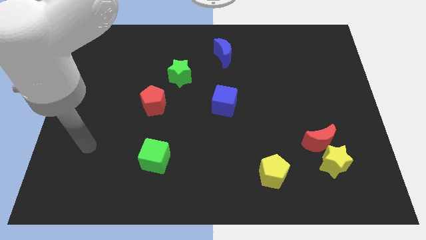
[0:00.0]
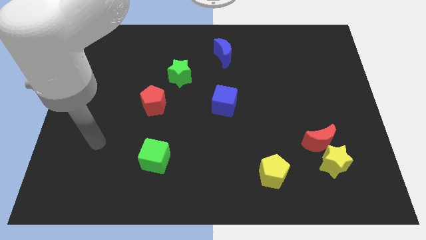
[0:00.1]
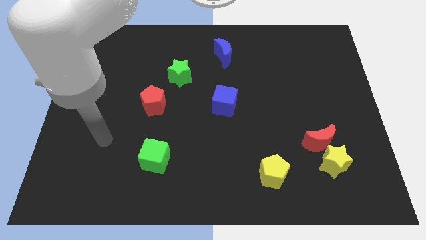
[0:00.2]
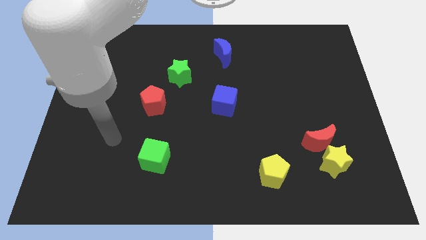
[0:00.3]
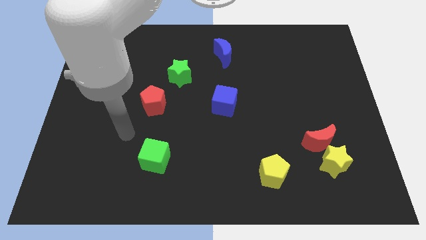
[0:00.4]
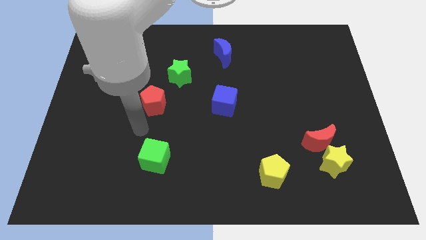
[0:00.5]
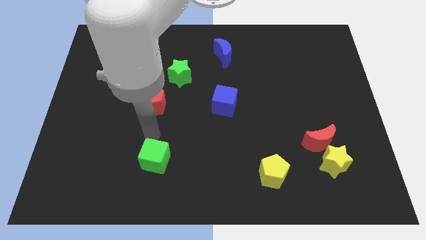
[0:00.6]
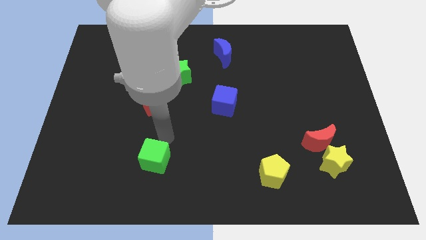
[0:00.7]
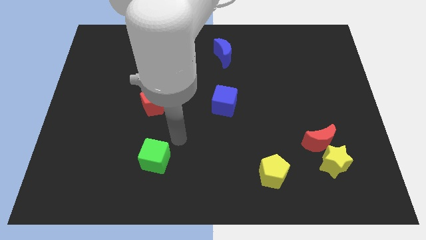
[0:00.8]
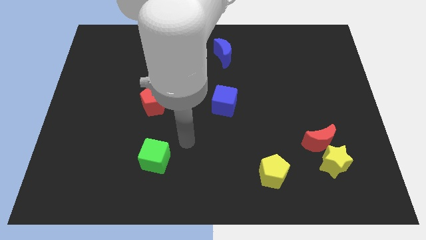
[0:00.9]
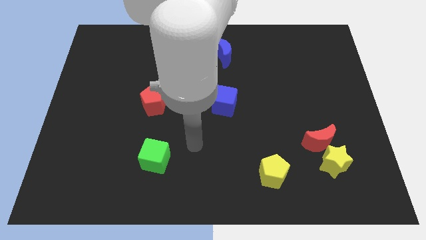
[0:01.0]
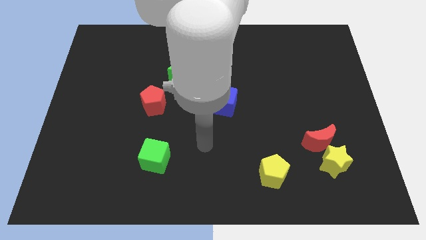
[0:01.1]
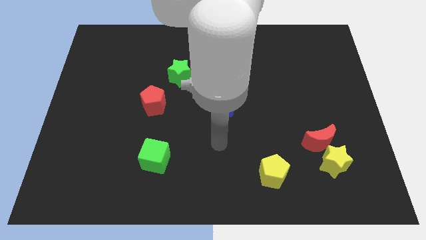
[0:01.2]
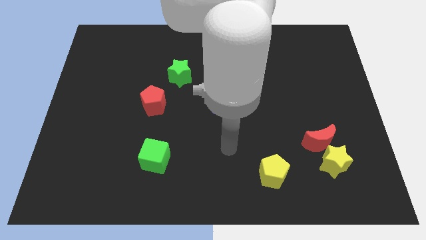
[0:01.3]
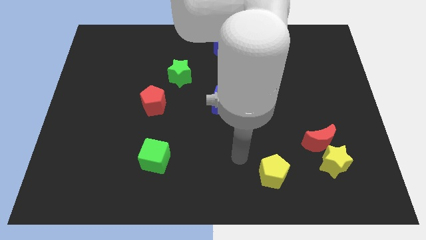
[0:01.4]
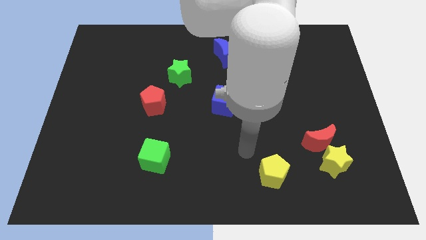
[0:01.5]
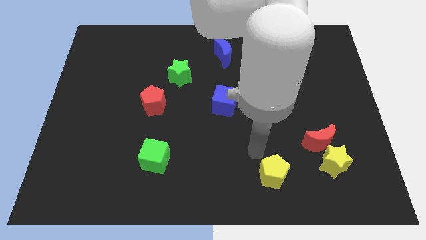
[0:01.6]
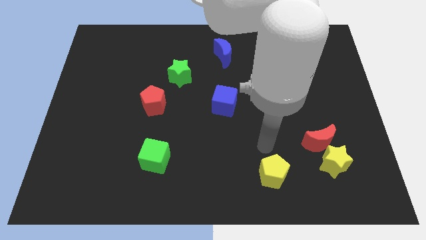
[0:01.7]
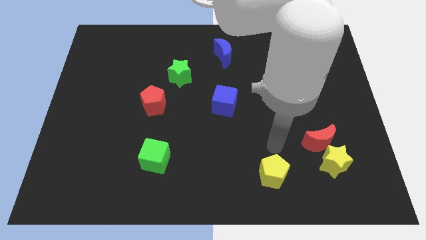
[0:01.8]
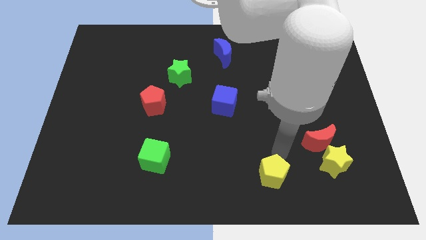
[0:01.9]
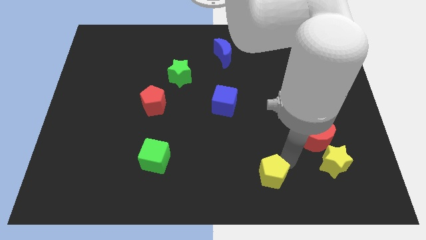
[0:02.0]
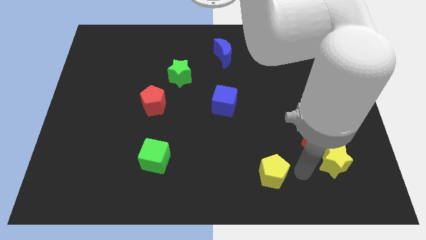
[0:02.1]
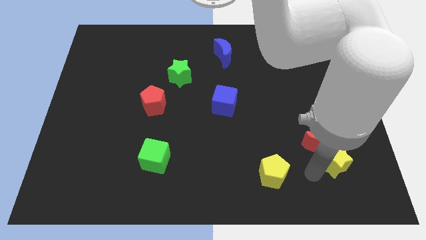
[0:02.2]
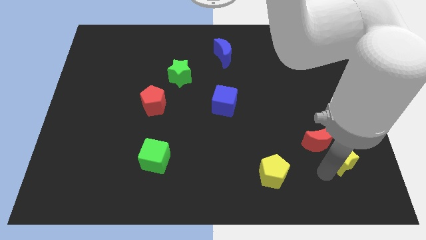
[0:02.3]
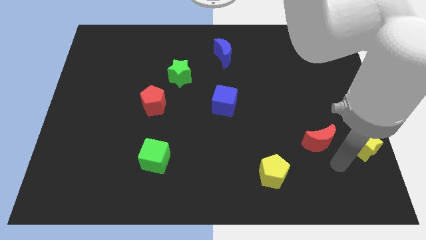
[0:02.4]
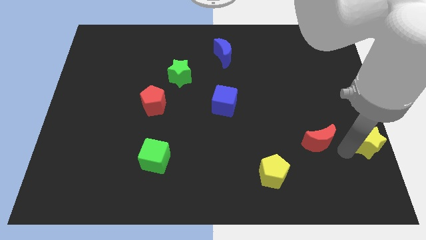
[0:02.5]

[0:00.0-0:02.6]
separate the red moon from the yellow star

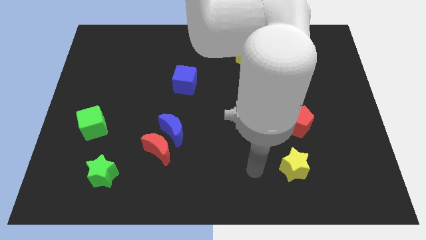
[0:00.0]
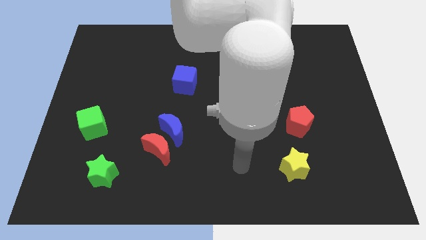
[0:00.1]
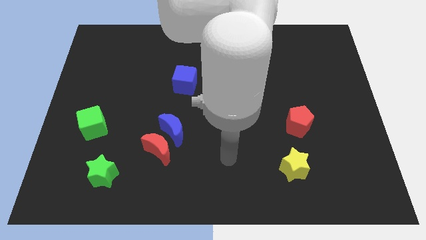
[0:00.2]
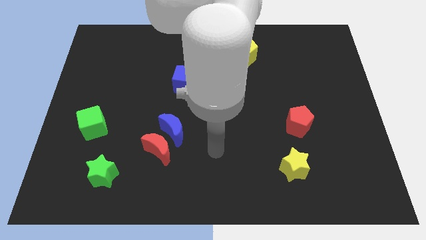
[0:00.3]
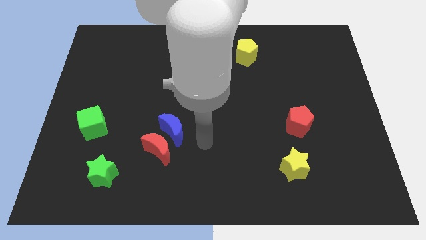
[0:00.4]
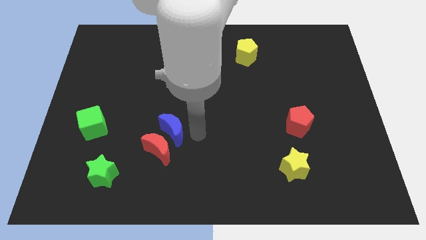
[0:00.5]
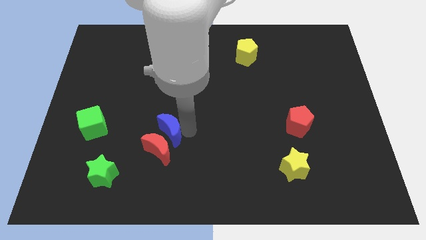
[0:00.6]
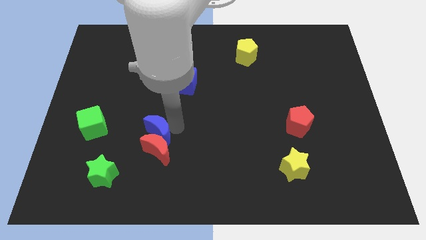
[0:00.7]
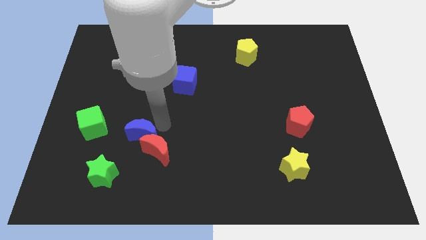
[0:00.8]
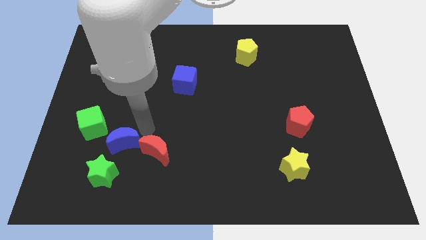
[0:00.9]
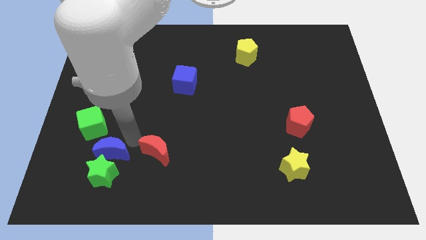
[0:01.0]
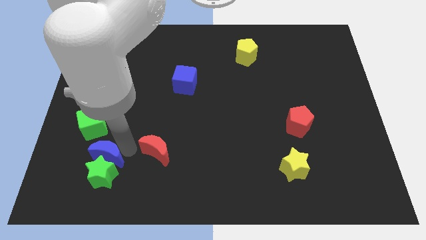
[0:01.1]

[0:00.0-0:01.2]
move the red moon away from the blue moon

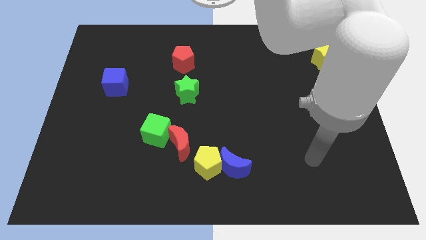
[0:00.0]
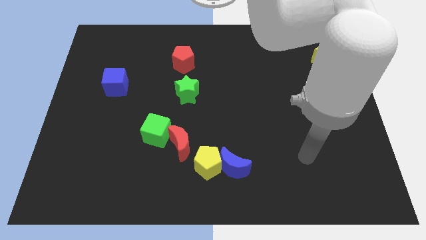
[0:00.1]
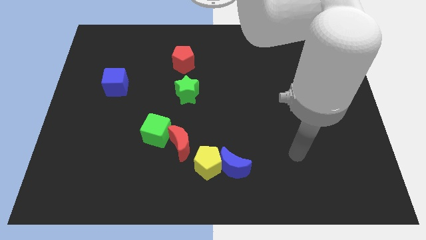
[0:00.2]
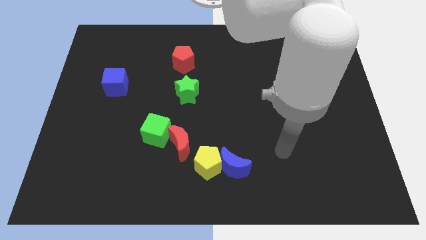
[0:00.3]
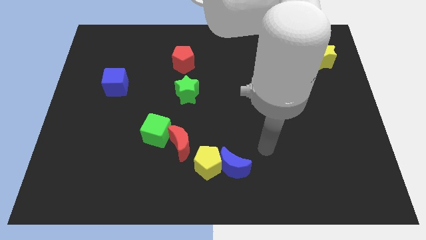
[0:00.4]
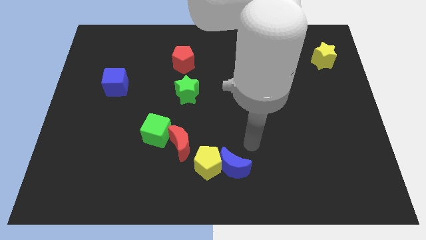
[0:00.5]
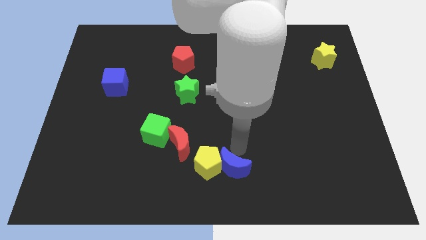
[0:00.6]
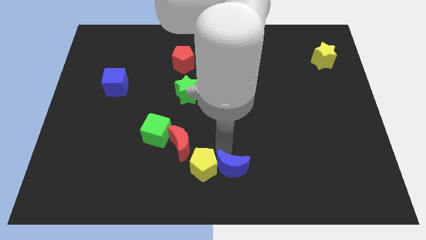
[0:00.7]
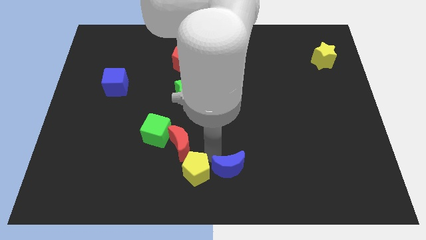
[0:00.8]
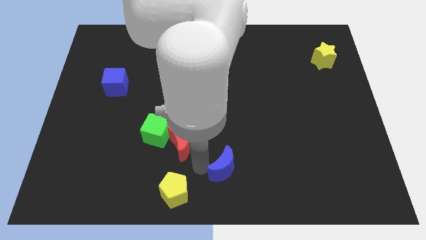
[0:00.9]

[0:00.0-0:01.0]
separate the blue moon from the yellow pentagon

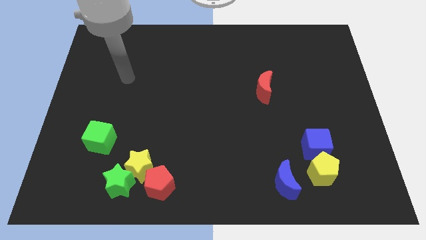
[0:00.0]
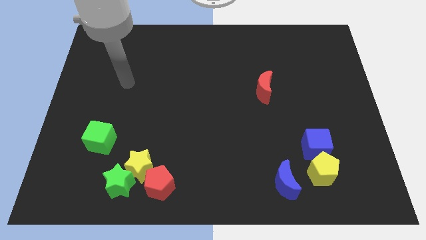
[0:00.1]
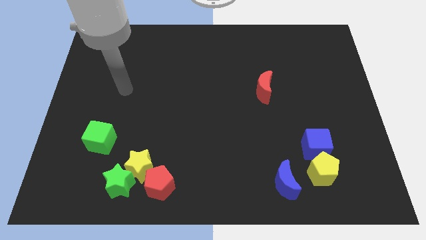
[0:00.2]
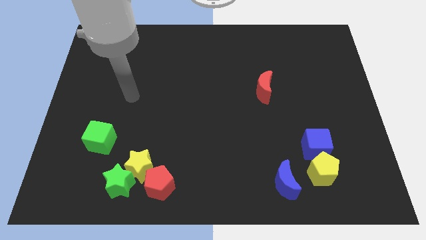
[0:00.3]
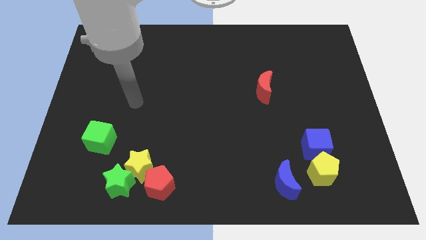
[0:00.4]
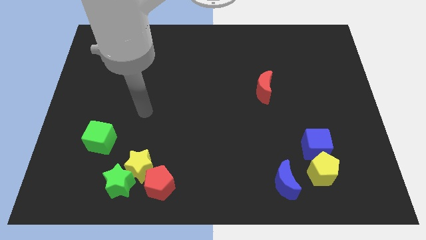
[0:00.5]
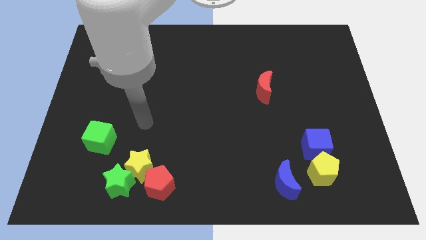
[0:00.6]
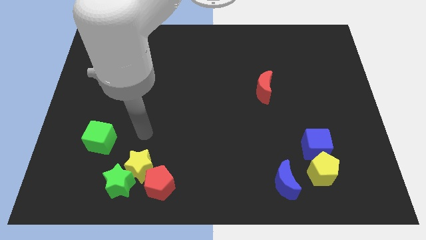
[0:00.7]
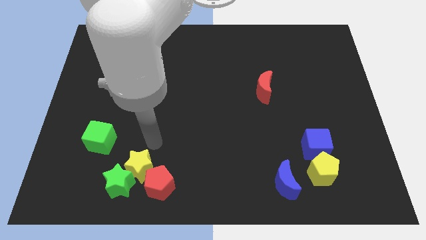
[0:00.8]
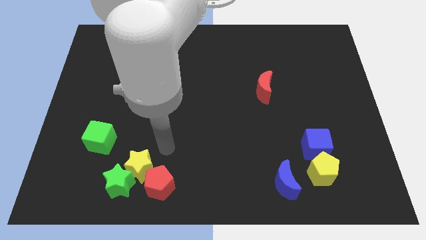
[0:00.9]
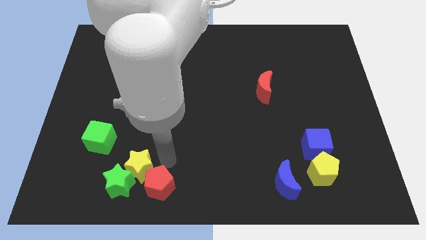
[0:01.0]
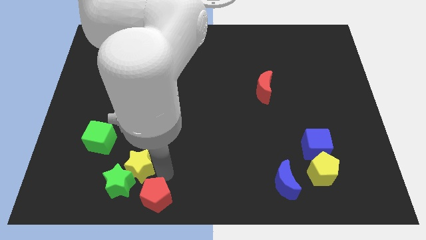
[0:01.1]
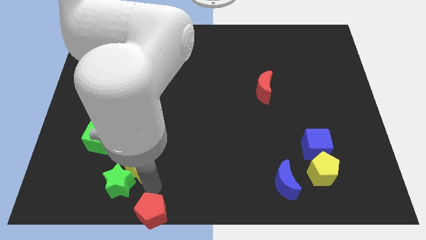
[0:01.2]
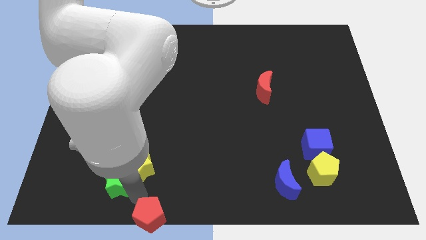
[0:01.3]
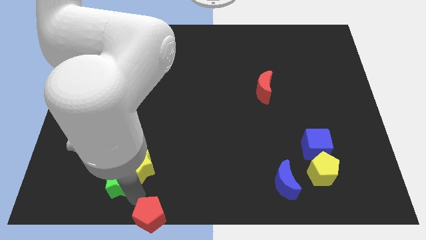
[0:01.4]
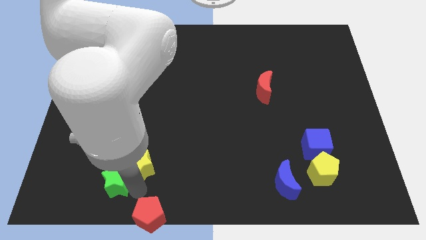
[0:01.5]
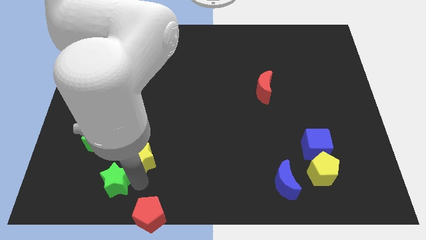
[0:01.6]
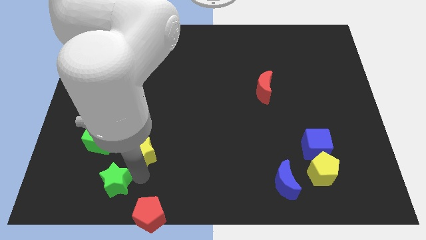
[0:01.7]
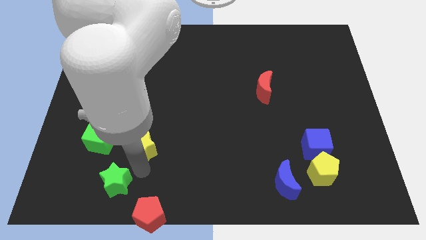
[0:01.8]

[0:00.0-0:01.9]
separate the yellow star from the green star and red pentagon

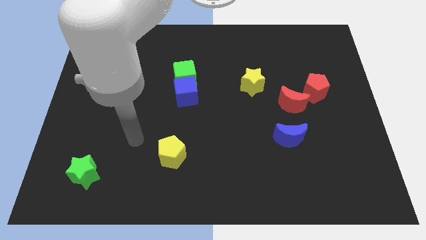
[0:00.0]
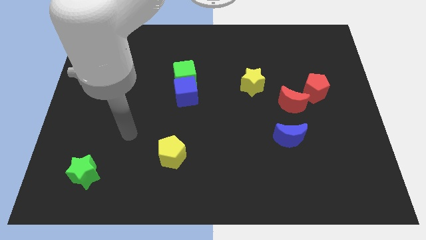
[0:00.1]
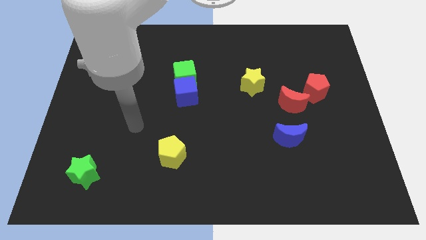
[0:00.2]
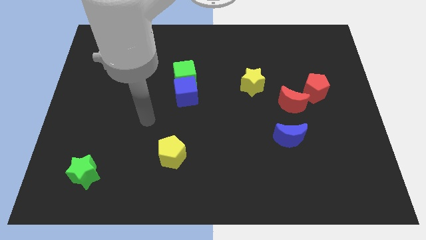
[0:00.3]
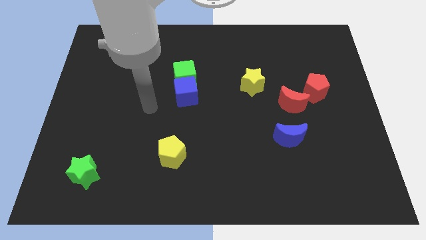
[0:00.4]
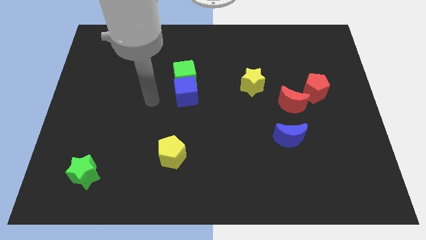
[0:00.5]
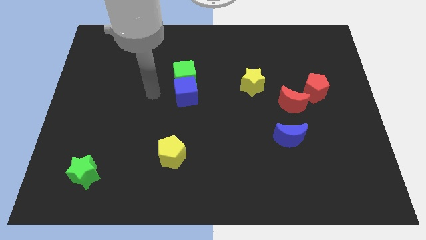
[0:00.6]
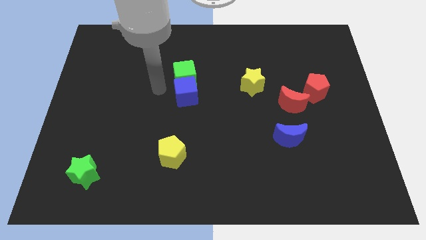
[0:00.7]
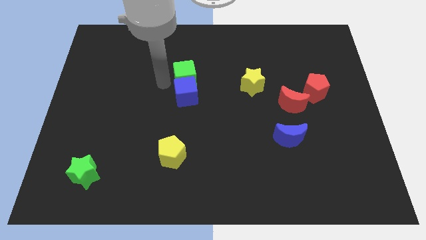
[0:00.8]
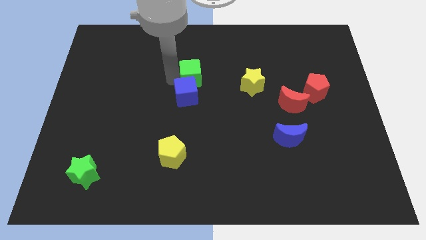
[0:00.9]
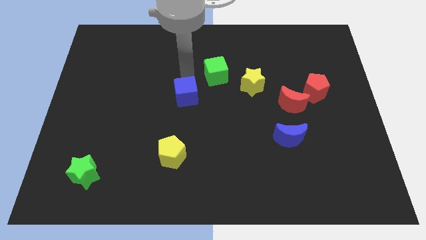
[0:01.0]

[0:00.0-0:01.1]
separate the blue cube from the green cube

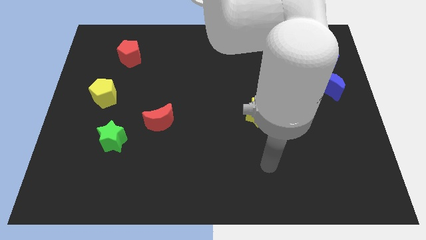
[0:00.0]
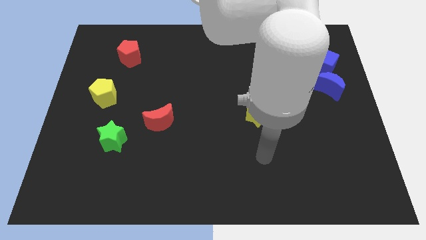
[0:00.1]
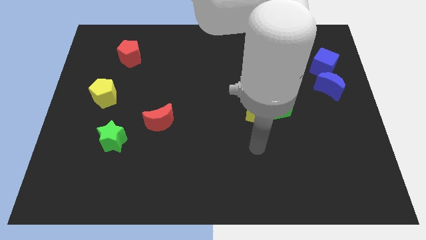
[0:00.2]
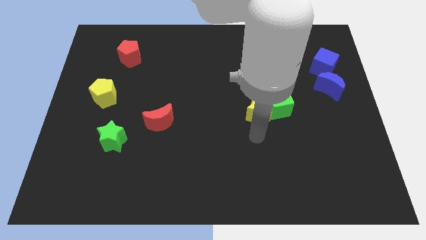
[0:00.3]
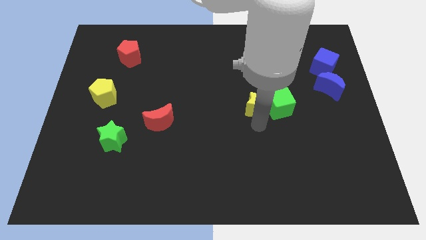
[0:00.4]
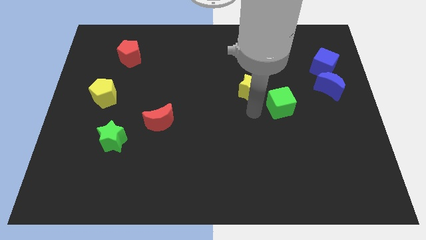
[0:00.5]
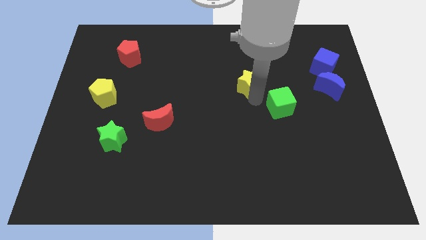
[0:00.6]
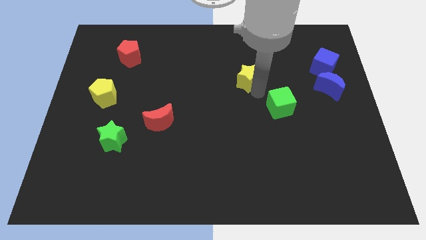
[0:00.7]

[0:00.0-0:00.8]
separate the green cube from the yellow star

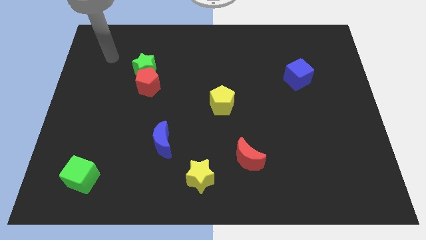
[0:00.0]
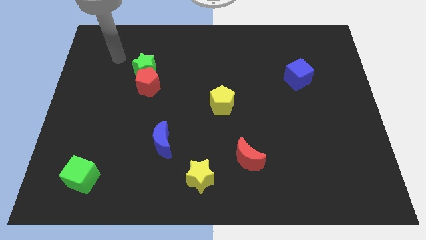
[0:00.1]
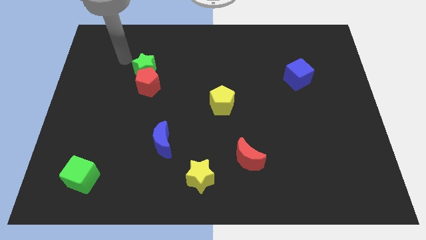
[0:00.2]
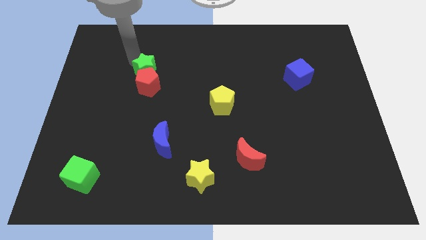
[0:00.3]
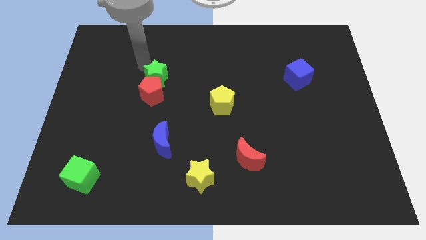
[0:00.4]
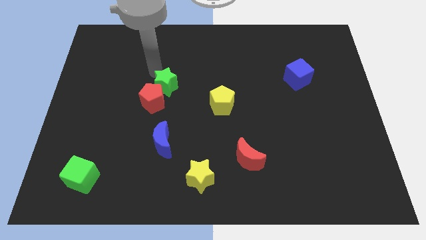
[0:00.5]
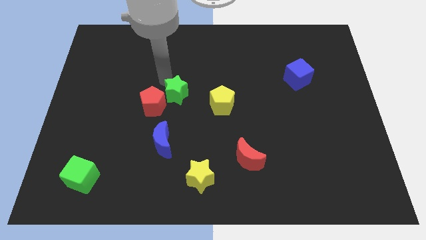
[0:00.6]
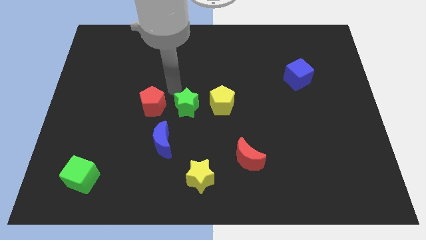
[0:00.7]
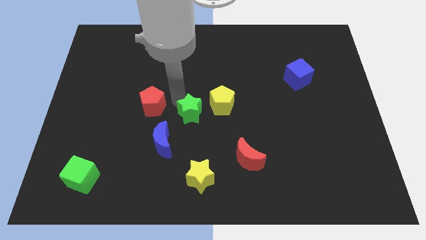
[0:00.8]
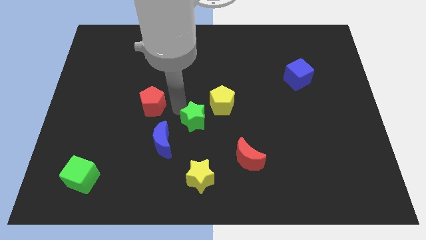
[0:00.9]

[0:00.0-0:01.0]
separate the red pentagon from the green star
